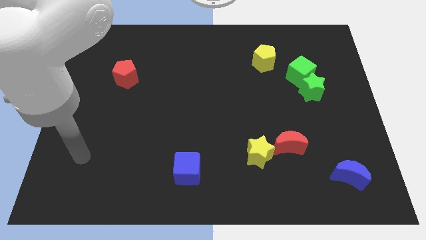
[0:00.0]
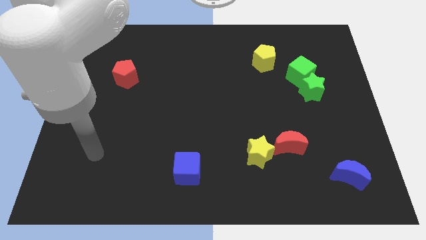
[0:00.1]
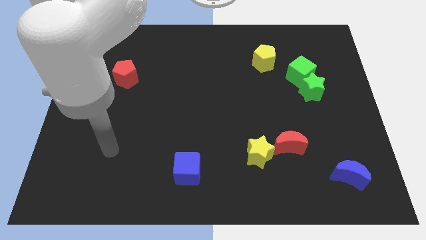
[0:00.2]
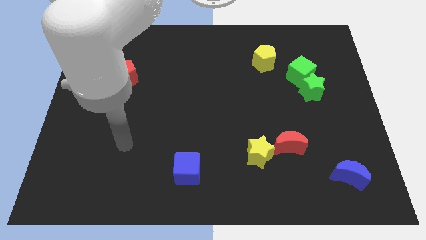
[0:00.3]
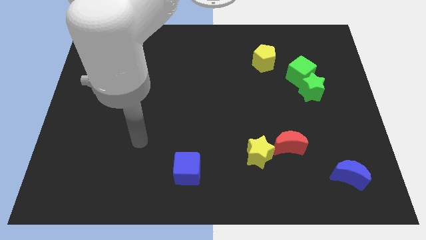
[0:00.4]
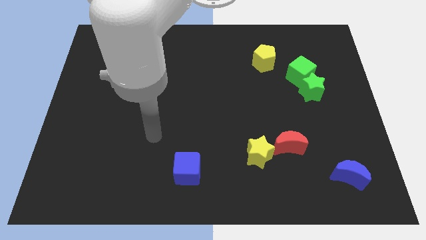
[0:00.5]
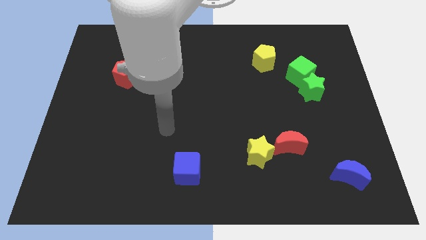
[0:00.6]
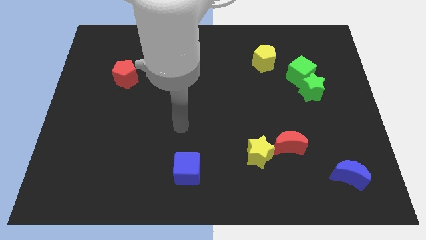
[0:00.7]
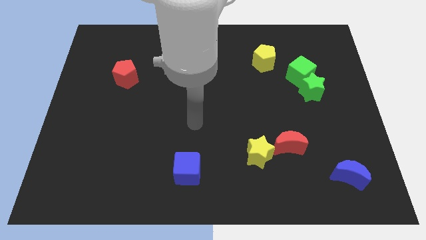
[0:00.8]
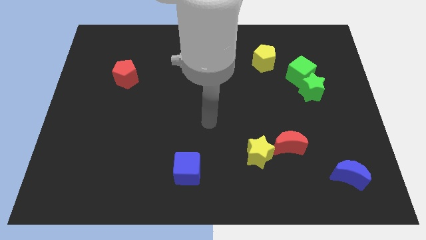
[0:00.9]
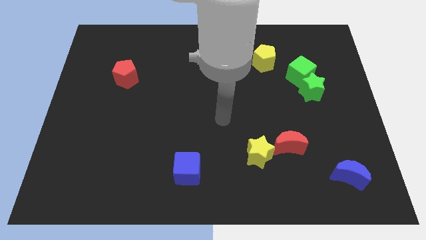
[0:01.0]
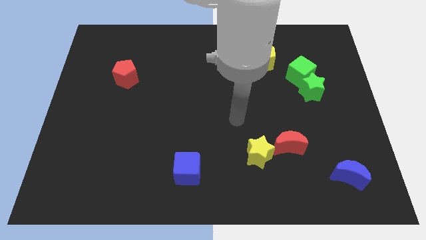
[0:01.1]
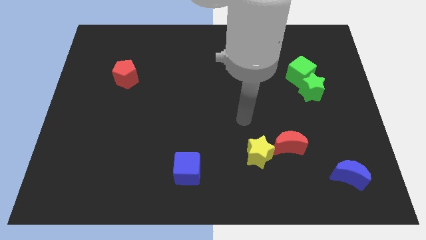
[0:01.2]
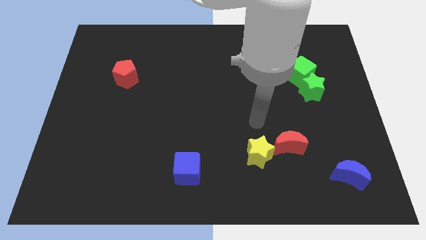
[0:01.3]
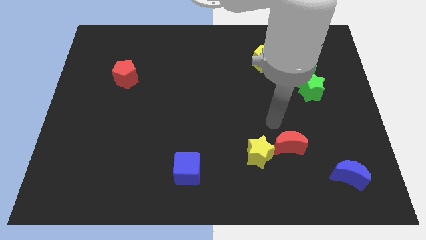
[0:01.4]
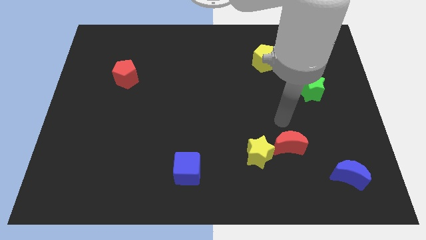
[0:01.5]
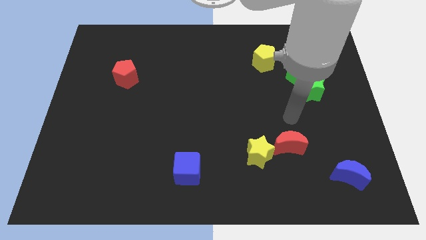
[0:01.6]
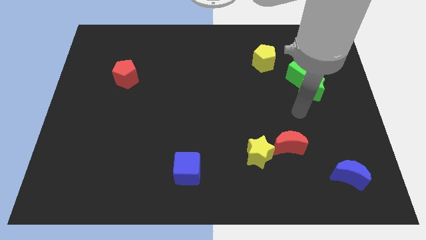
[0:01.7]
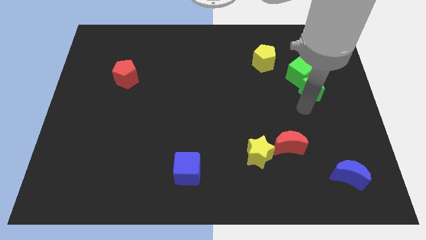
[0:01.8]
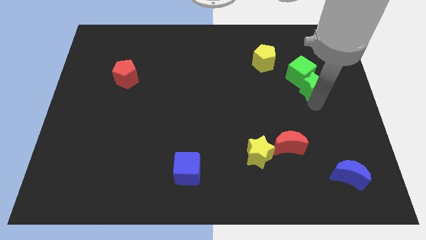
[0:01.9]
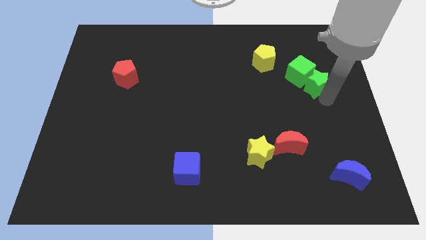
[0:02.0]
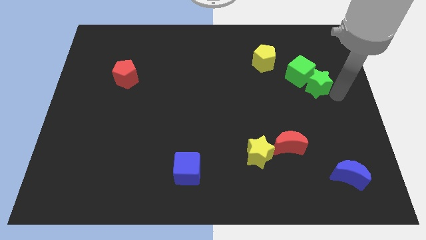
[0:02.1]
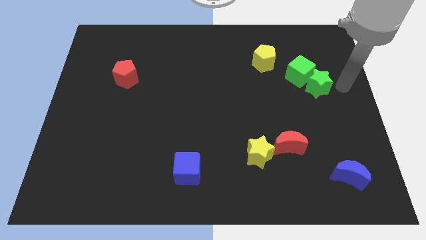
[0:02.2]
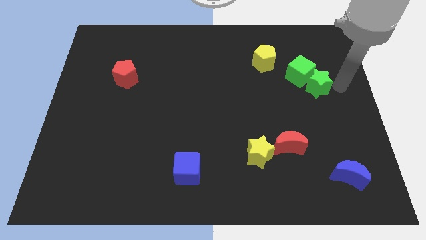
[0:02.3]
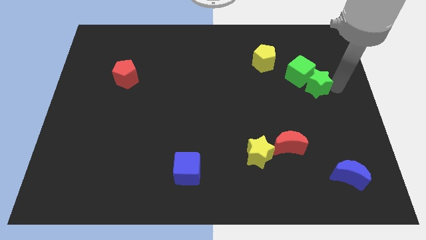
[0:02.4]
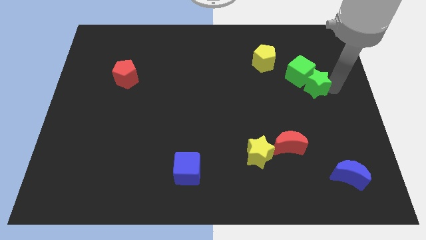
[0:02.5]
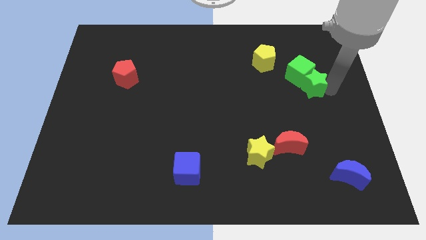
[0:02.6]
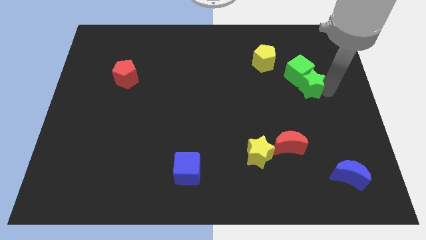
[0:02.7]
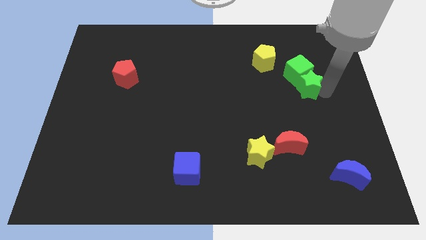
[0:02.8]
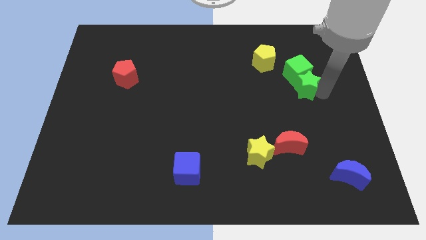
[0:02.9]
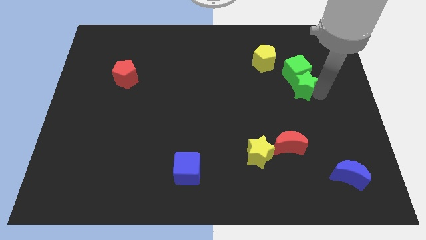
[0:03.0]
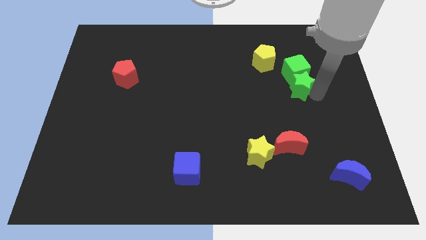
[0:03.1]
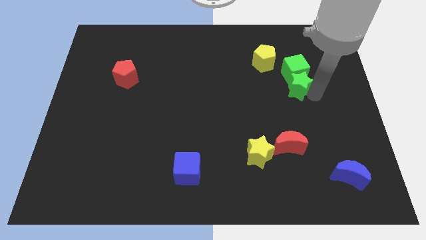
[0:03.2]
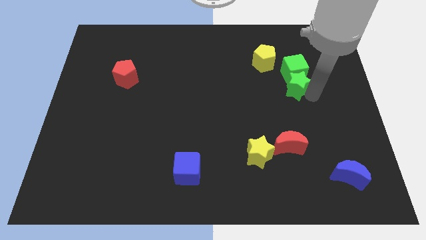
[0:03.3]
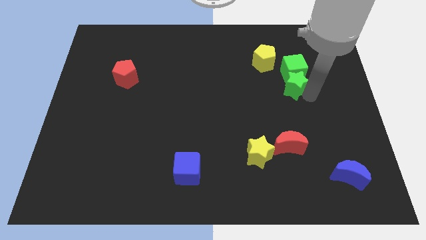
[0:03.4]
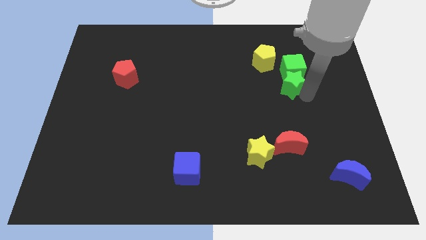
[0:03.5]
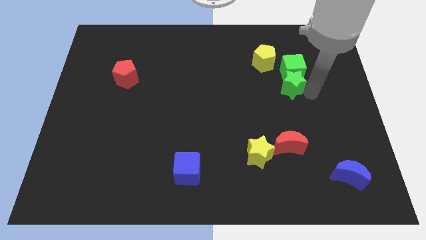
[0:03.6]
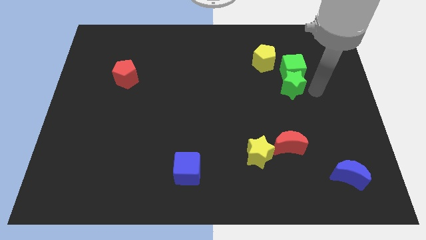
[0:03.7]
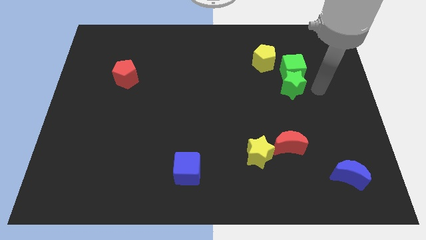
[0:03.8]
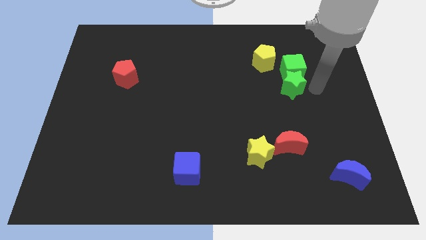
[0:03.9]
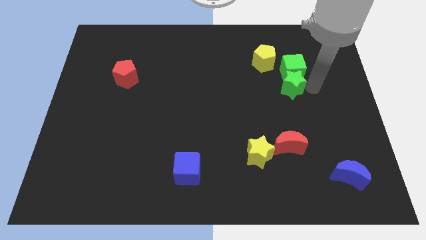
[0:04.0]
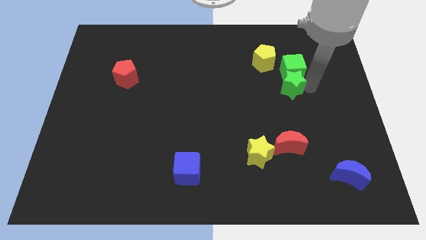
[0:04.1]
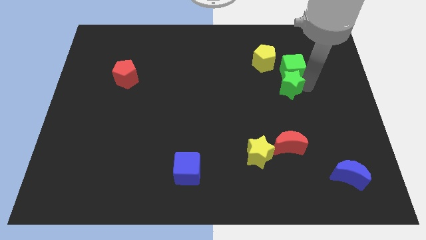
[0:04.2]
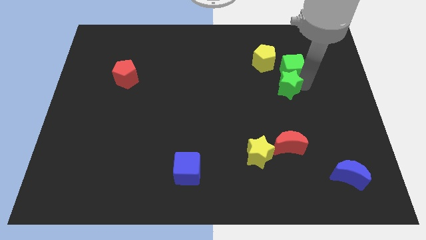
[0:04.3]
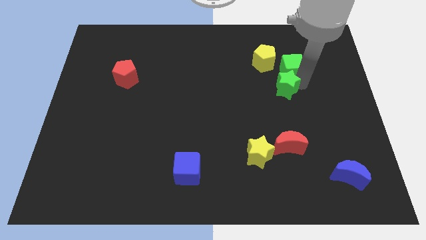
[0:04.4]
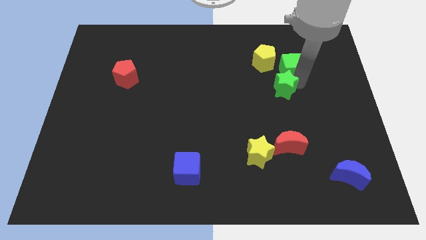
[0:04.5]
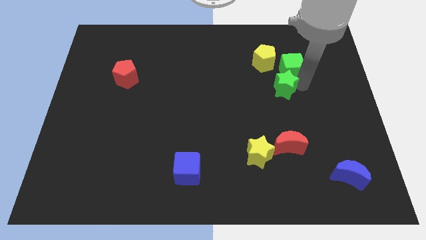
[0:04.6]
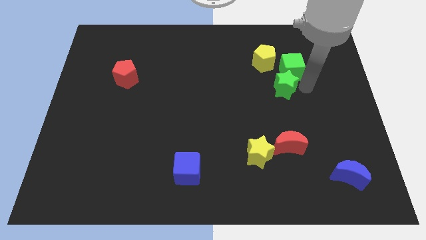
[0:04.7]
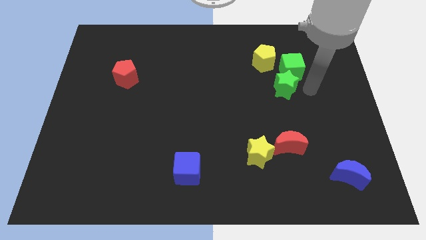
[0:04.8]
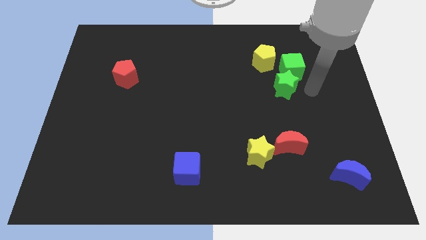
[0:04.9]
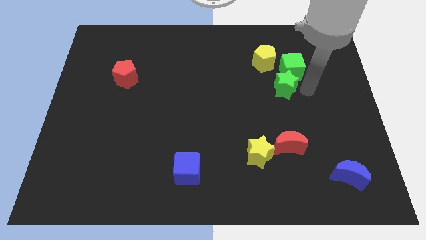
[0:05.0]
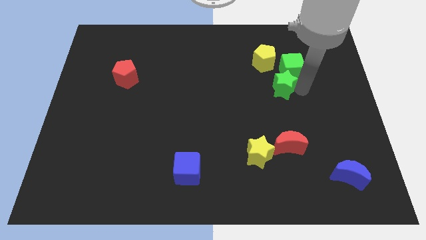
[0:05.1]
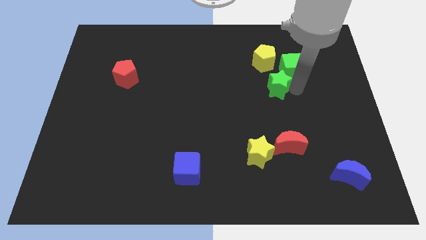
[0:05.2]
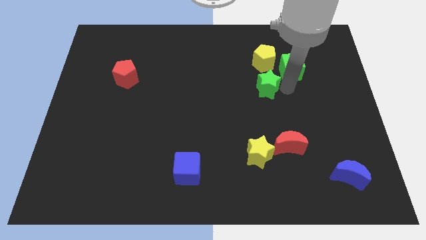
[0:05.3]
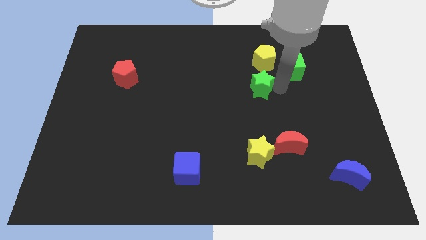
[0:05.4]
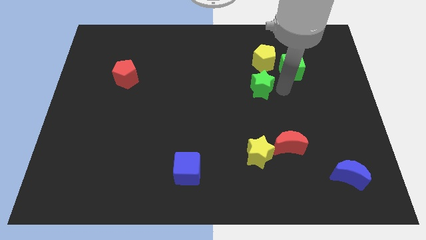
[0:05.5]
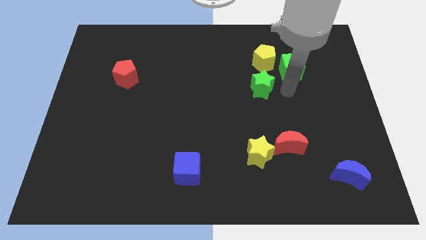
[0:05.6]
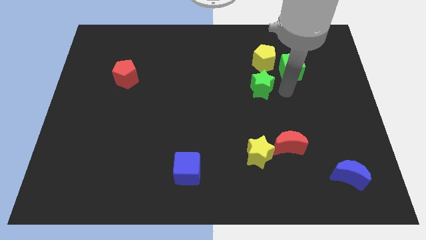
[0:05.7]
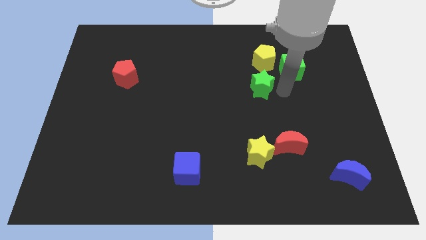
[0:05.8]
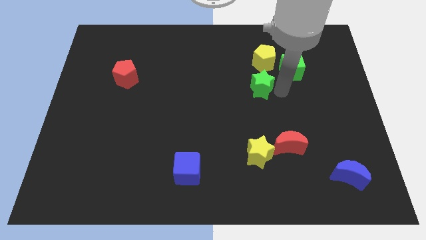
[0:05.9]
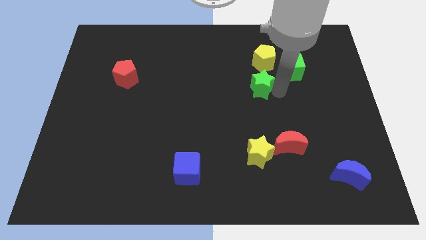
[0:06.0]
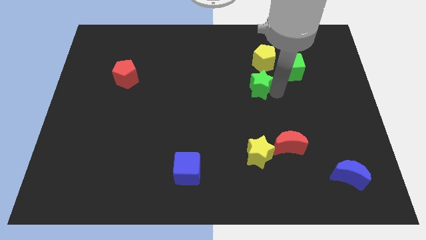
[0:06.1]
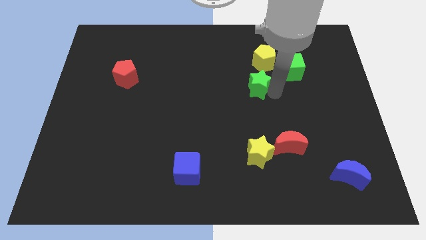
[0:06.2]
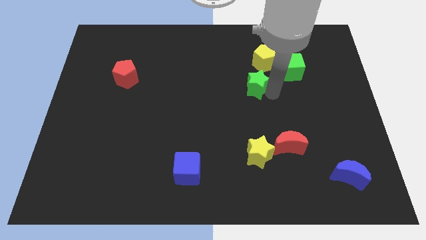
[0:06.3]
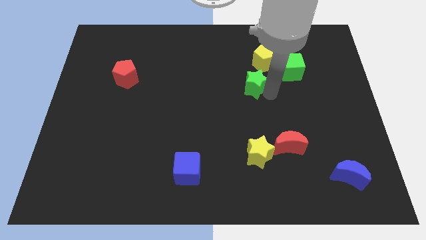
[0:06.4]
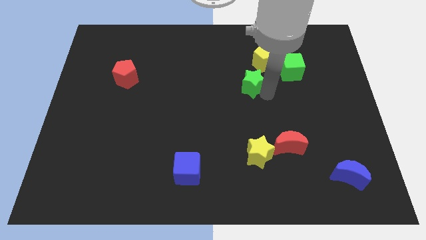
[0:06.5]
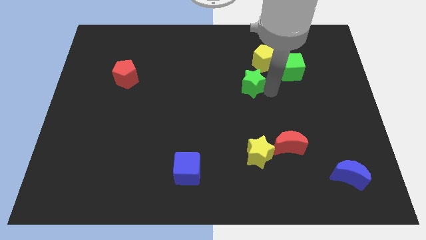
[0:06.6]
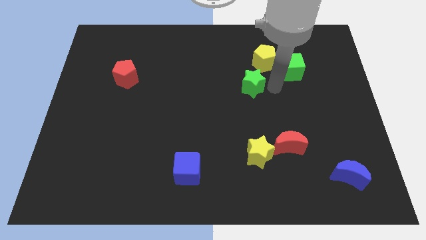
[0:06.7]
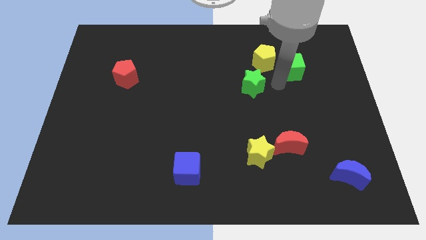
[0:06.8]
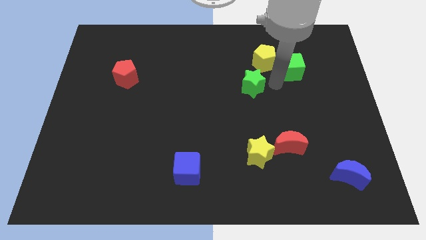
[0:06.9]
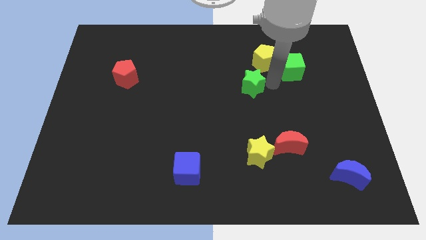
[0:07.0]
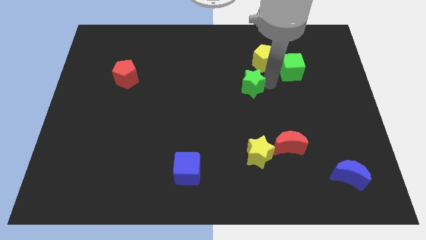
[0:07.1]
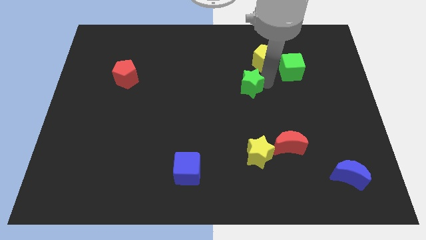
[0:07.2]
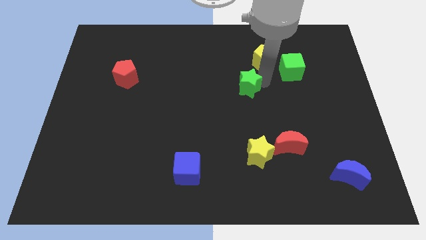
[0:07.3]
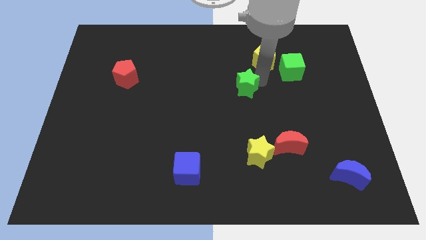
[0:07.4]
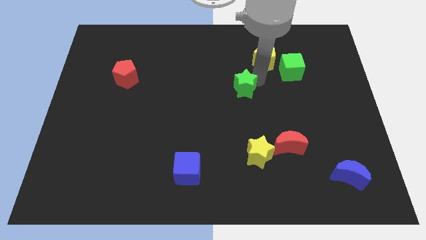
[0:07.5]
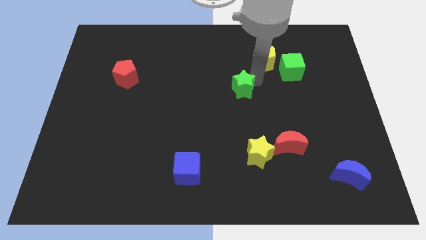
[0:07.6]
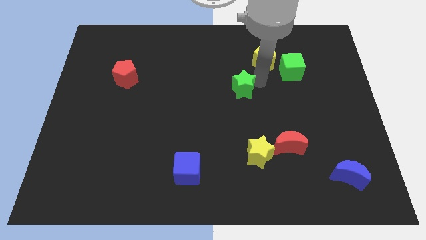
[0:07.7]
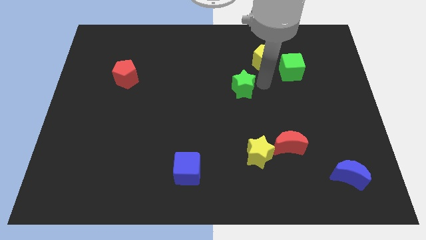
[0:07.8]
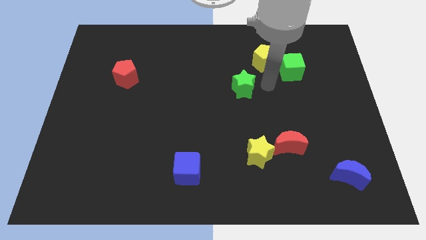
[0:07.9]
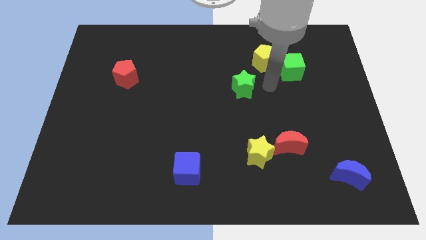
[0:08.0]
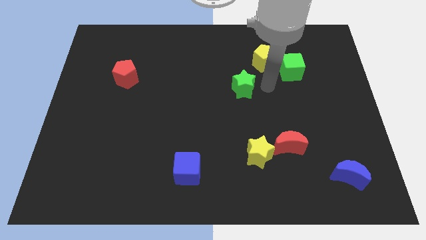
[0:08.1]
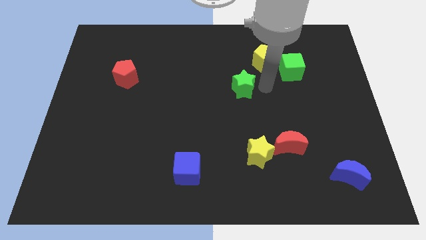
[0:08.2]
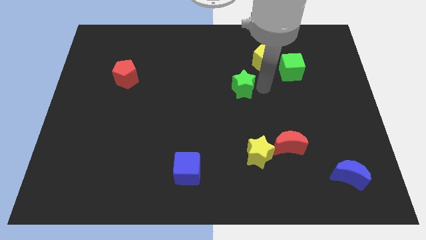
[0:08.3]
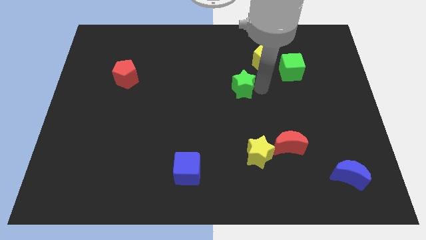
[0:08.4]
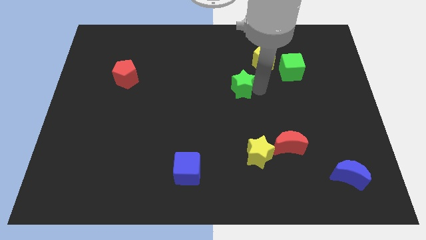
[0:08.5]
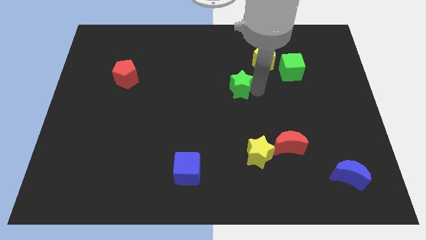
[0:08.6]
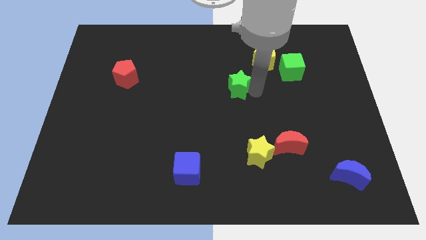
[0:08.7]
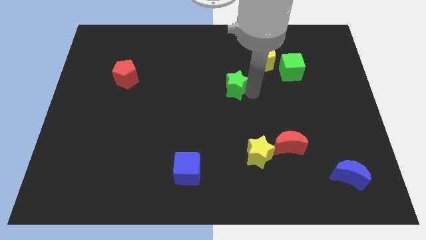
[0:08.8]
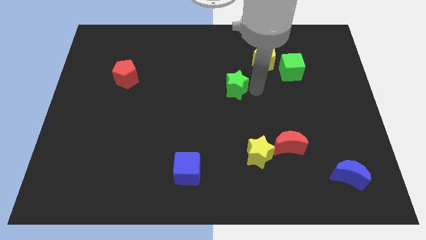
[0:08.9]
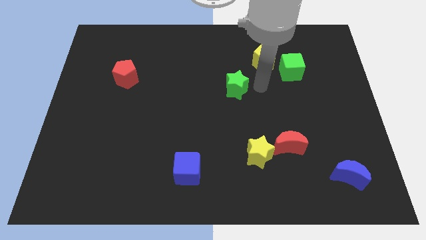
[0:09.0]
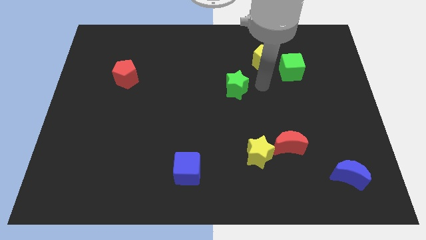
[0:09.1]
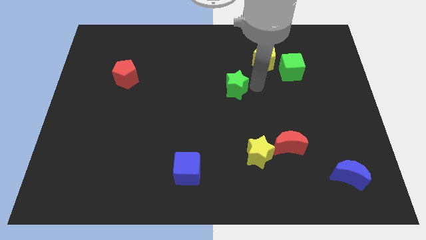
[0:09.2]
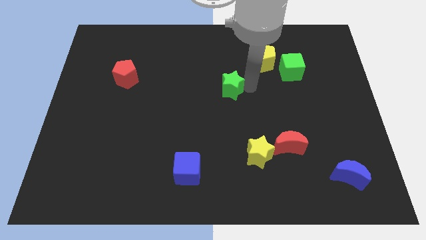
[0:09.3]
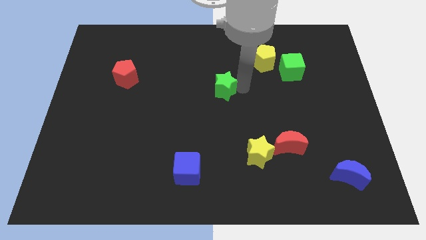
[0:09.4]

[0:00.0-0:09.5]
slide the green star to the left
